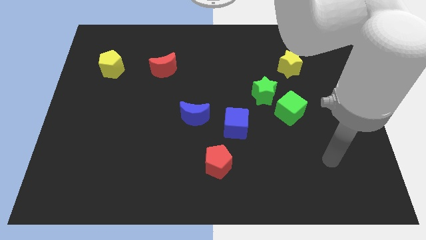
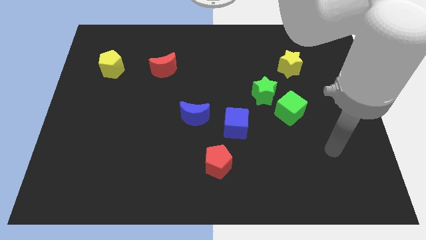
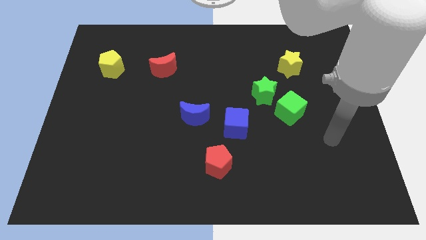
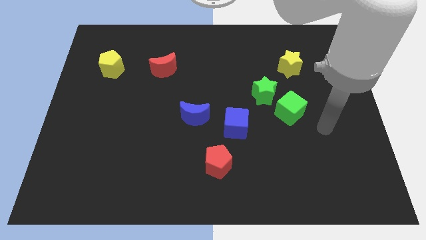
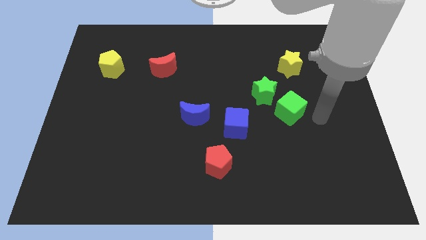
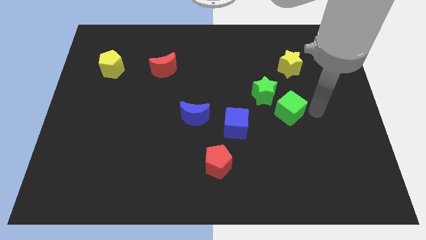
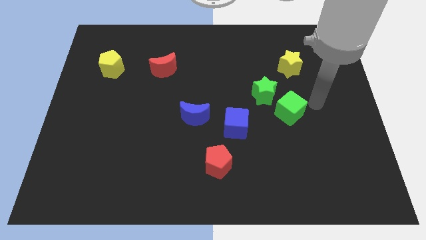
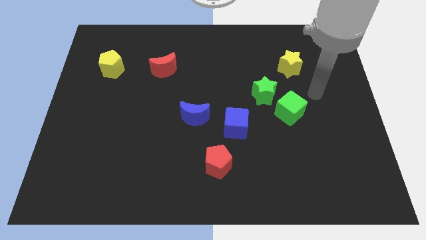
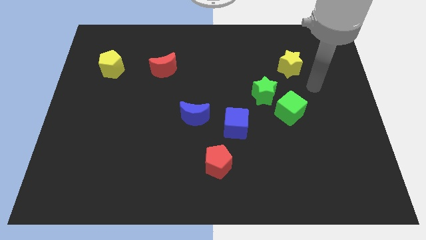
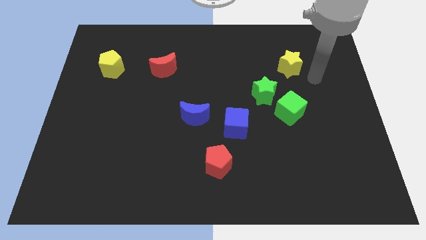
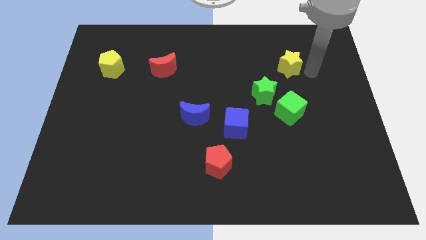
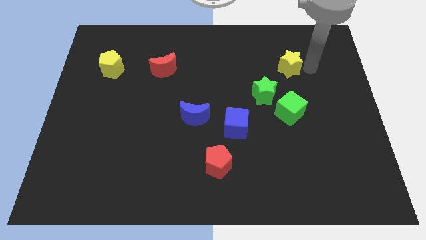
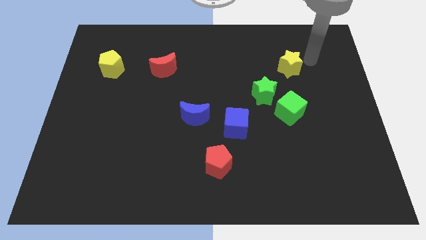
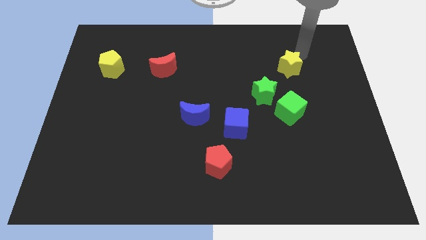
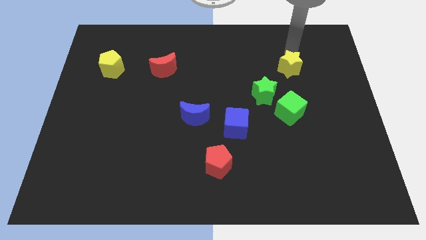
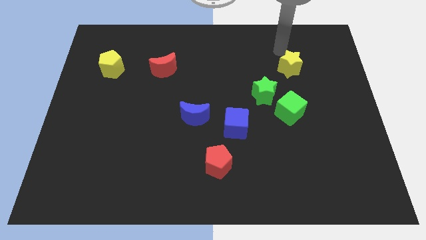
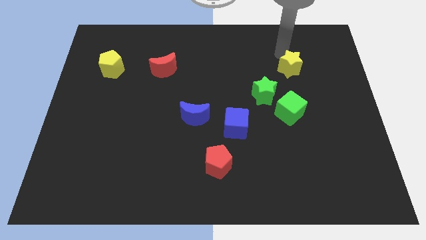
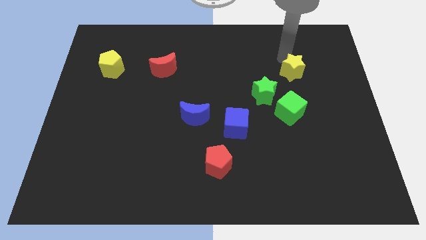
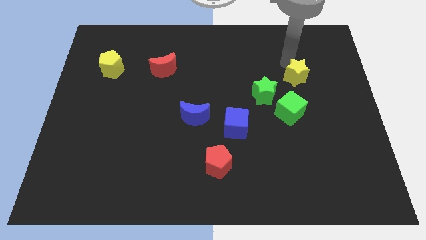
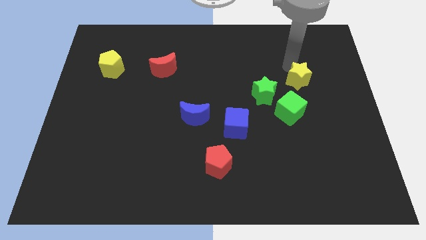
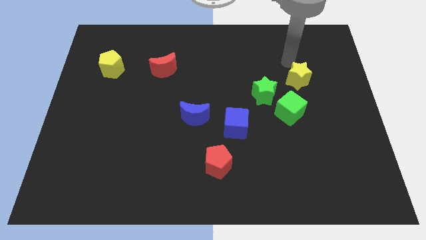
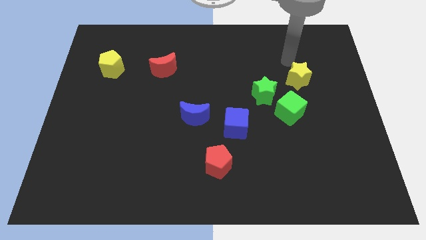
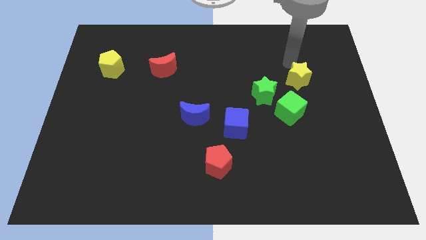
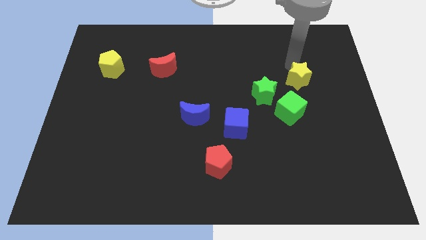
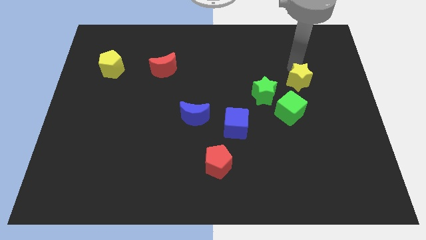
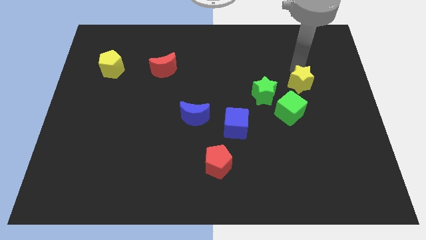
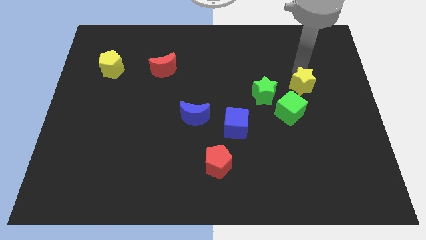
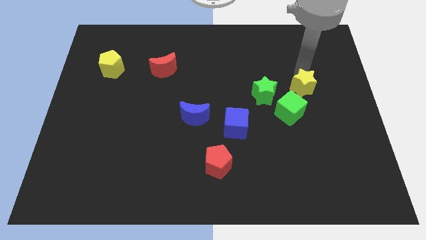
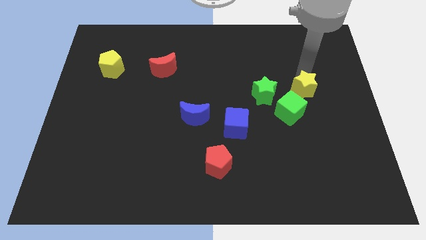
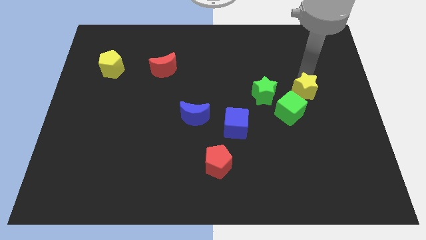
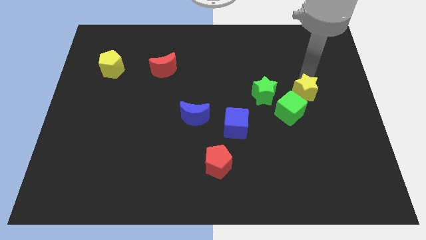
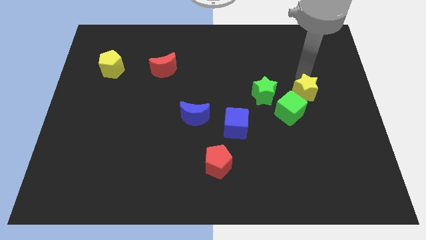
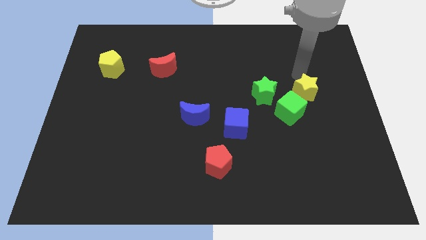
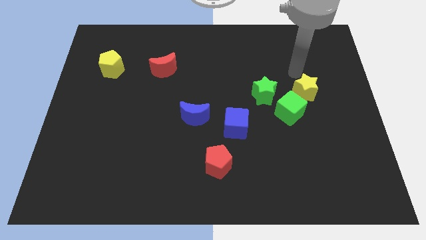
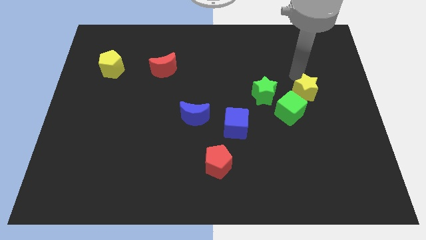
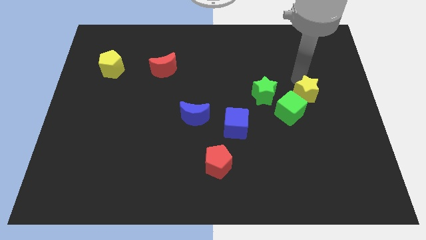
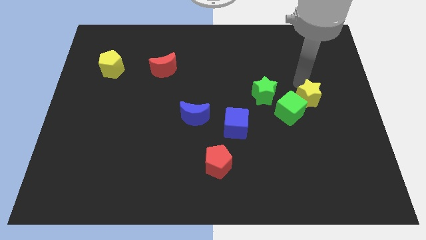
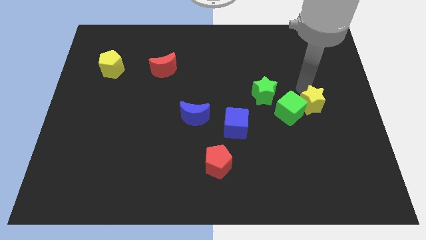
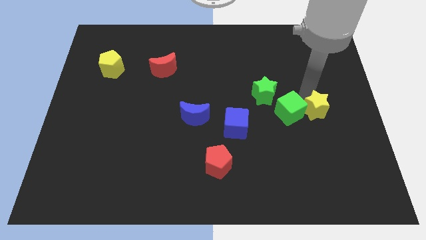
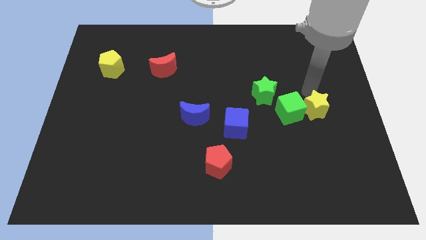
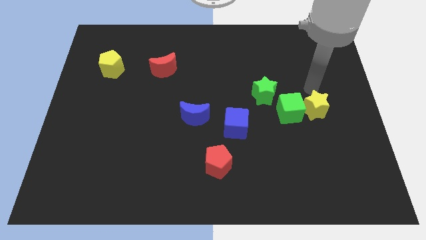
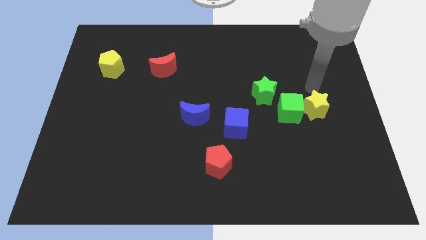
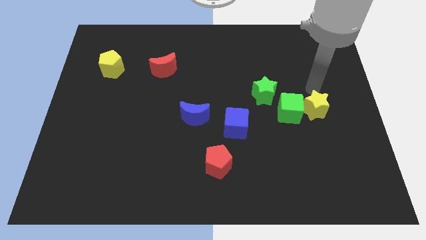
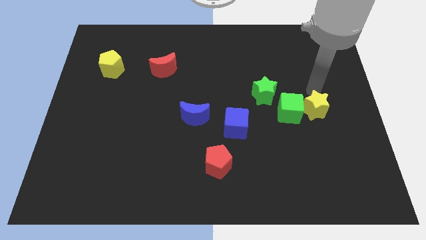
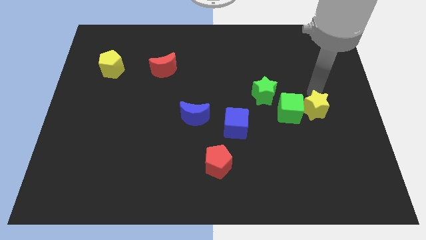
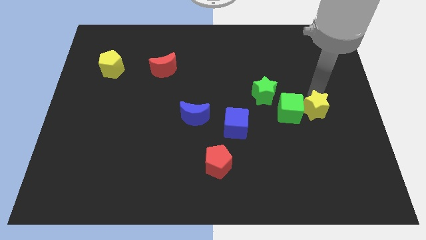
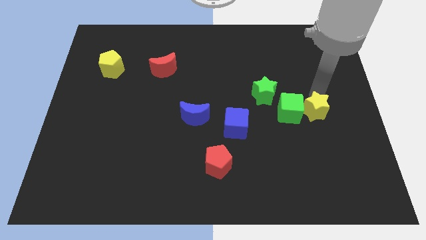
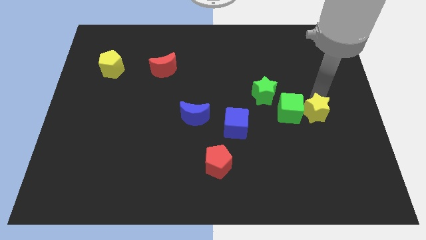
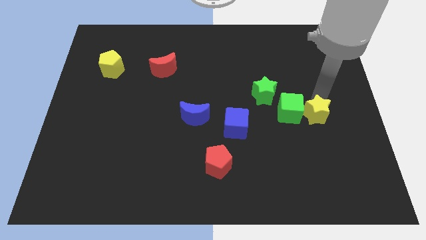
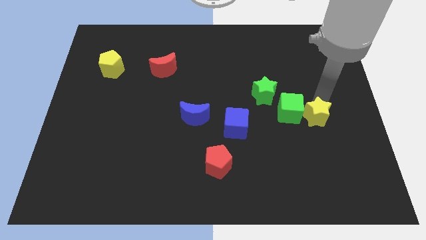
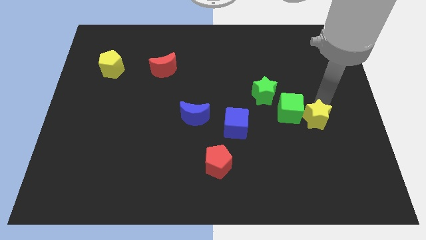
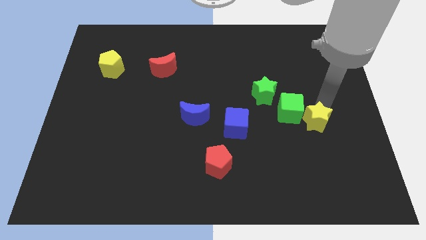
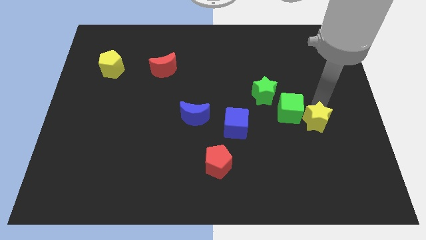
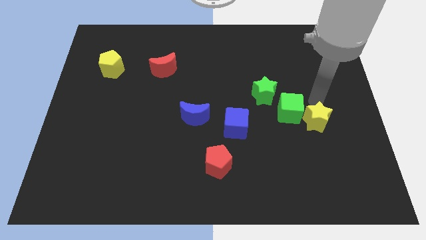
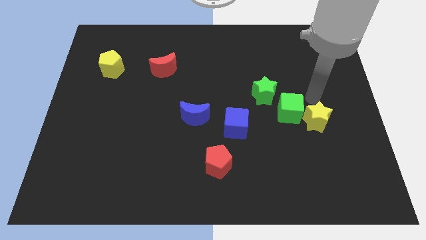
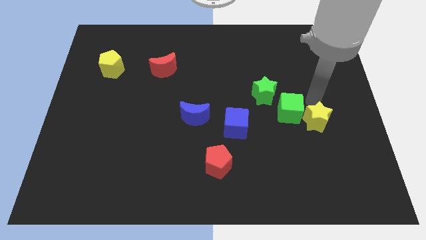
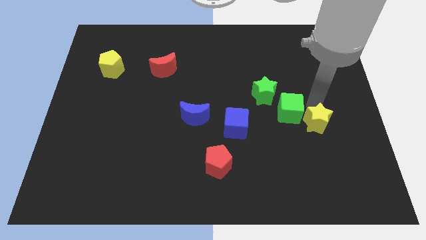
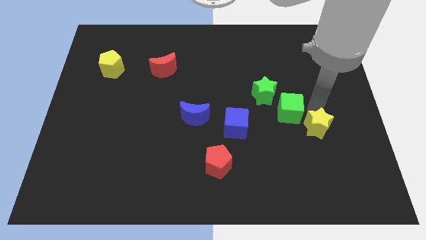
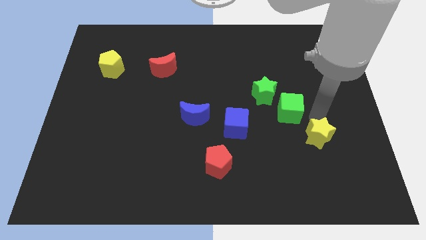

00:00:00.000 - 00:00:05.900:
push the yellow star downwards

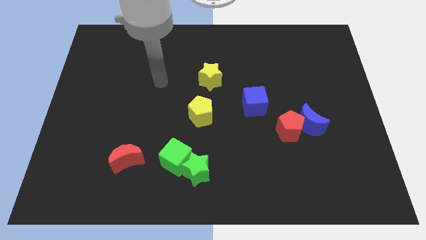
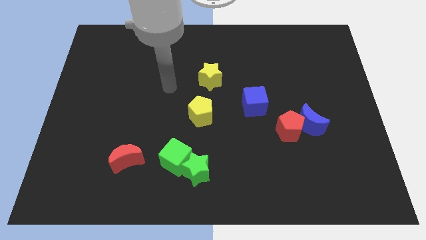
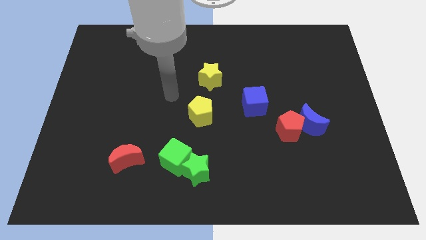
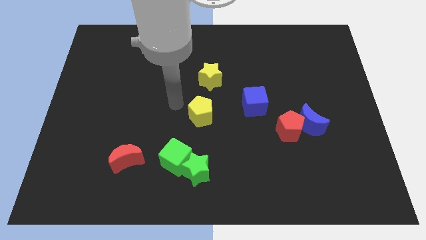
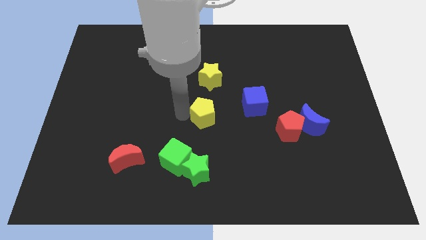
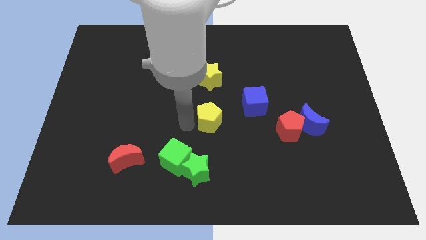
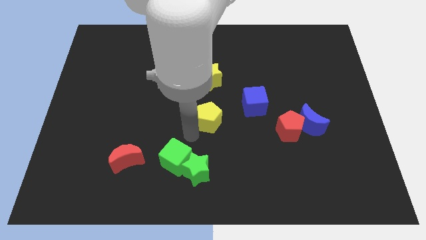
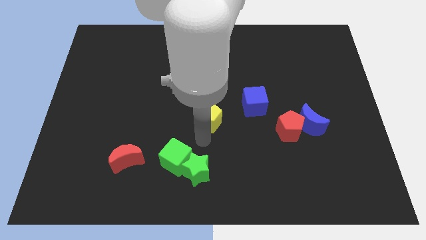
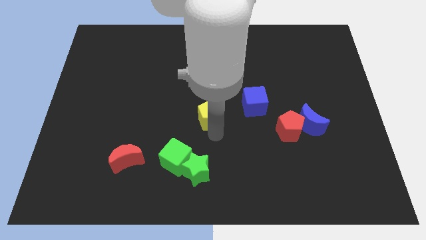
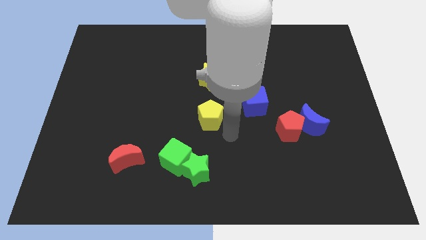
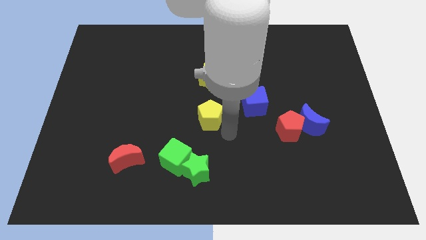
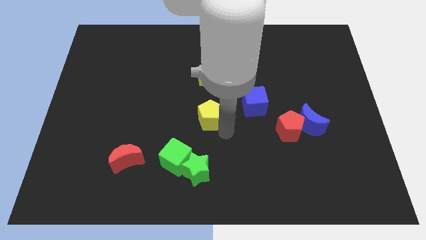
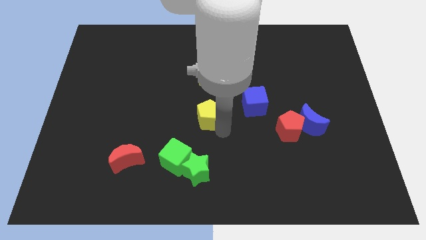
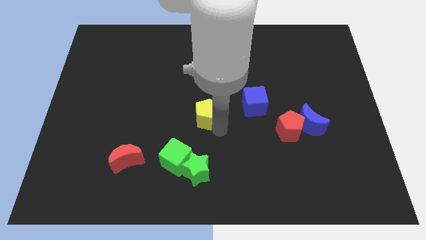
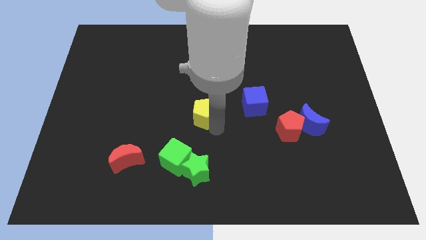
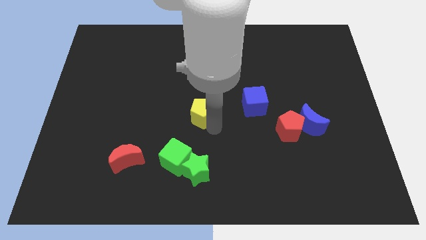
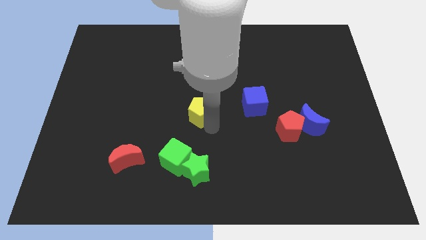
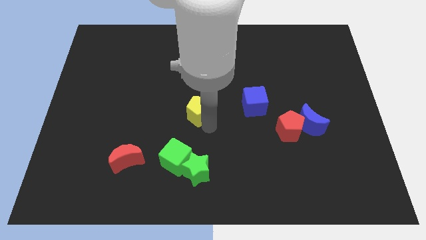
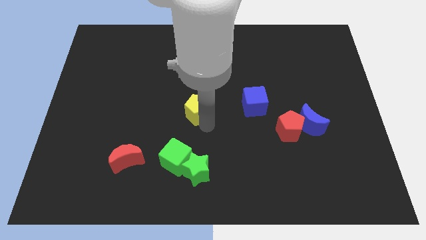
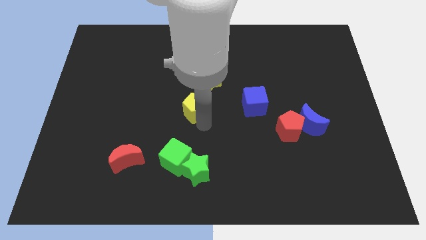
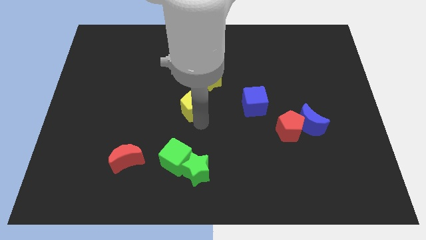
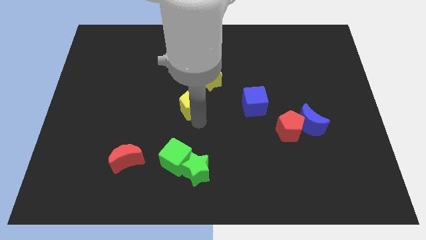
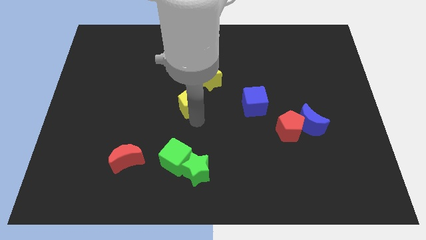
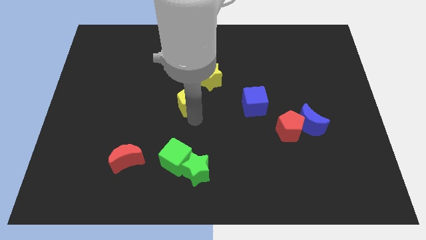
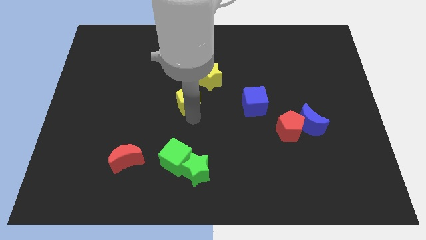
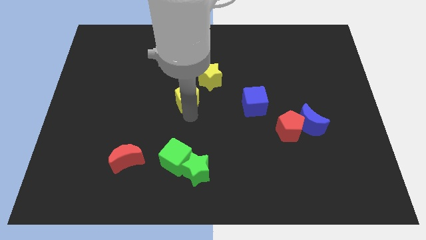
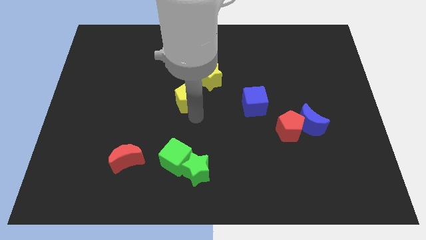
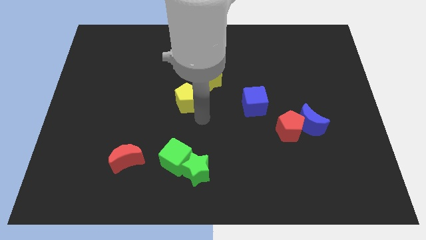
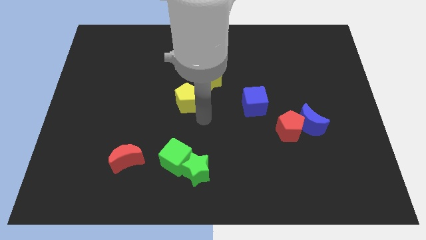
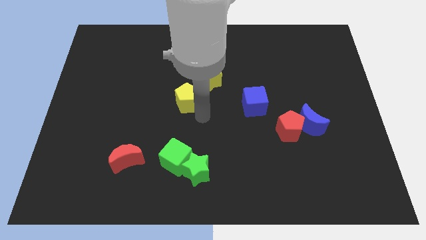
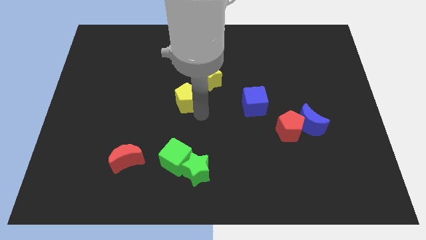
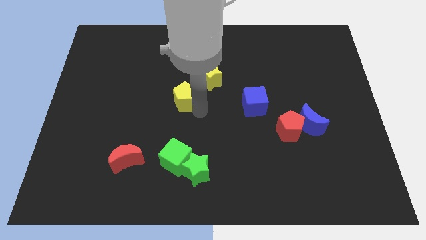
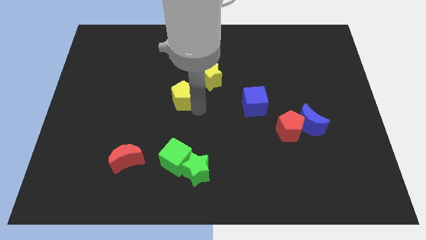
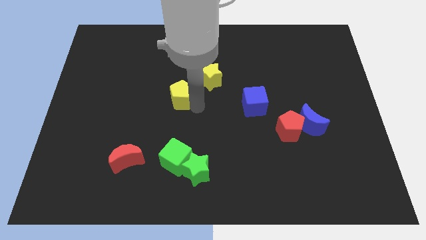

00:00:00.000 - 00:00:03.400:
slide the yellow pentagon up and then left slightly
